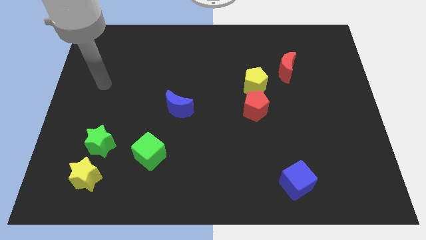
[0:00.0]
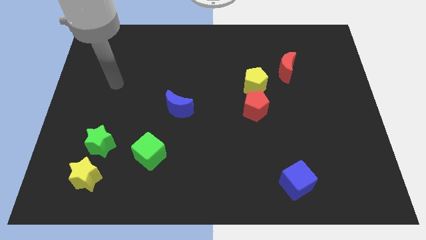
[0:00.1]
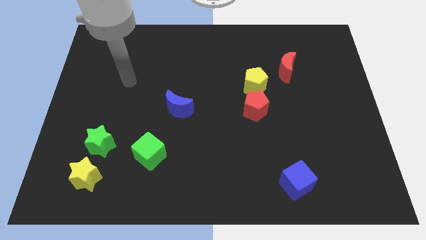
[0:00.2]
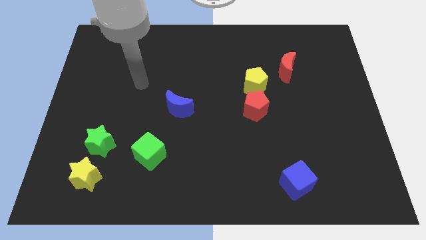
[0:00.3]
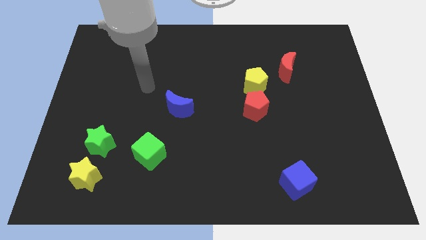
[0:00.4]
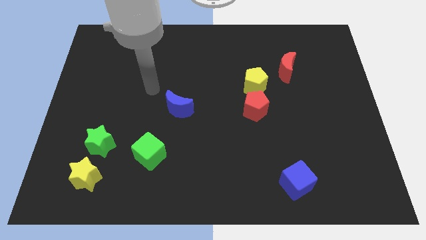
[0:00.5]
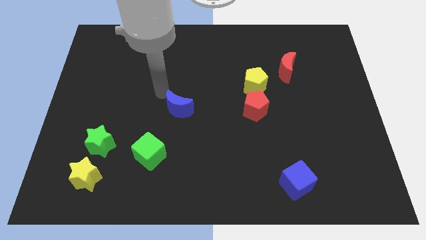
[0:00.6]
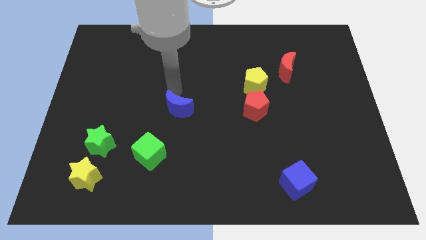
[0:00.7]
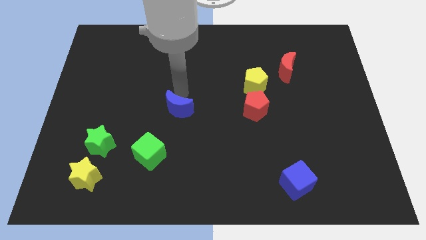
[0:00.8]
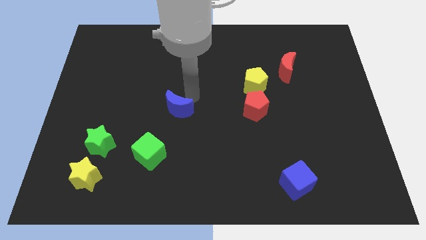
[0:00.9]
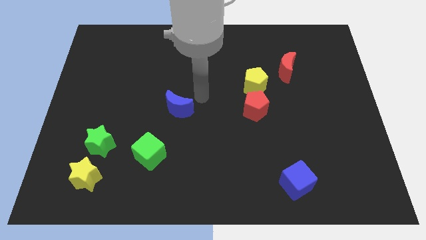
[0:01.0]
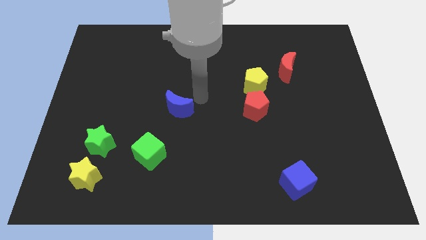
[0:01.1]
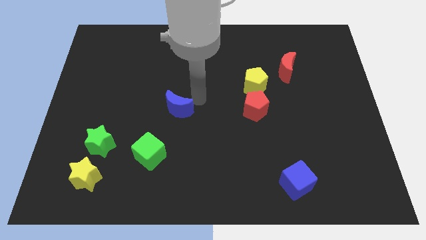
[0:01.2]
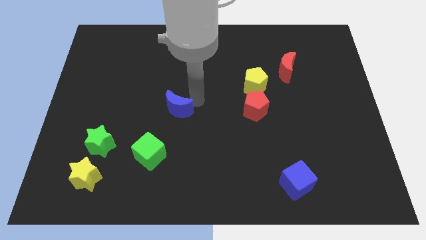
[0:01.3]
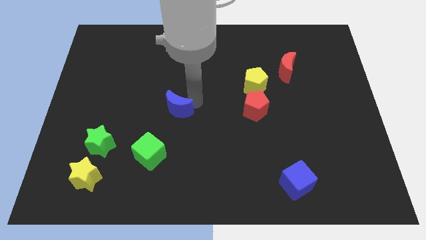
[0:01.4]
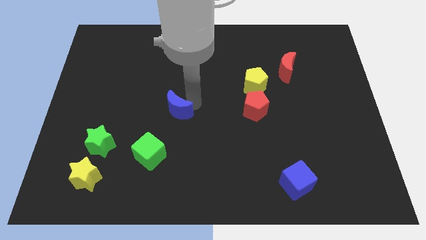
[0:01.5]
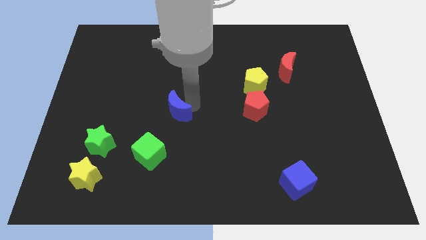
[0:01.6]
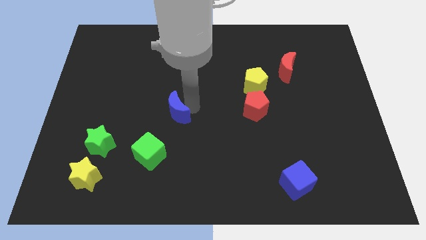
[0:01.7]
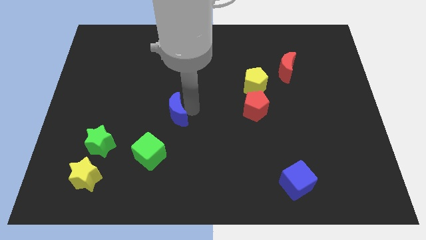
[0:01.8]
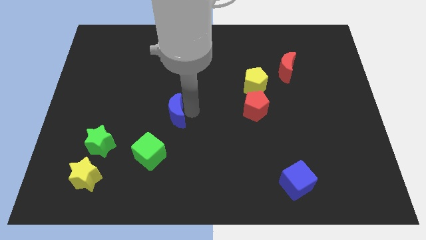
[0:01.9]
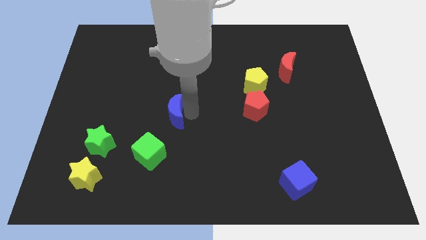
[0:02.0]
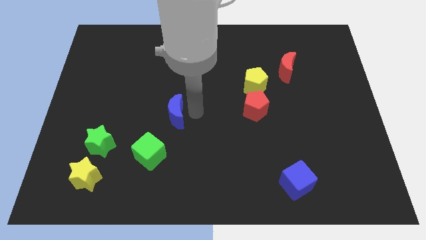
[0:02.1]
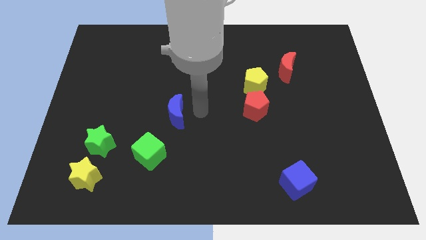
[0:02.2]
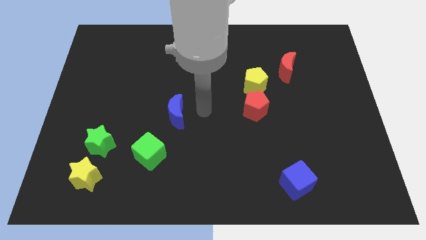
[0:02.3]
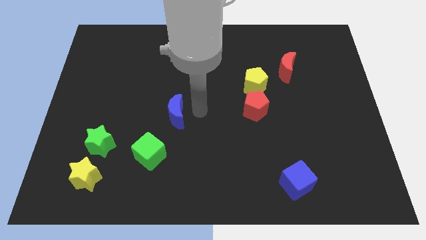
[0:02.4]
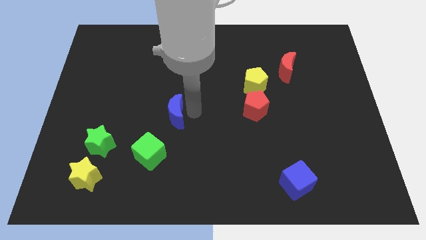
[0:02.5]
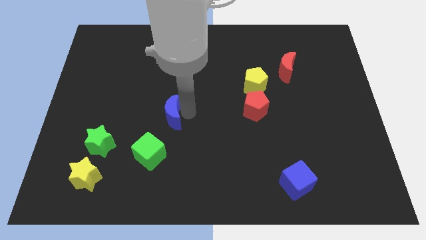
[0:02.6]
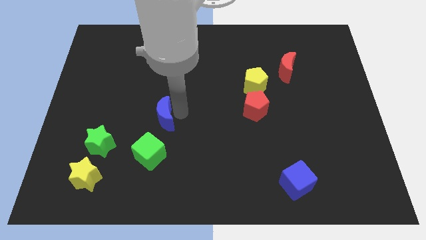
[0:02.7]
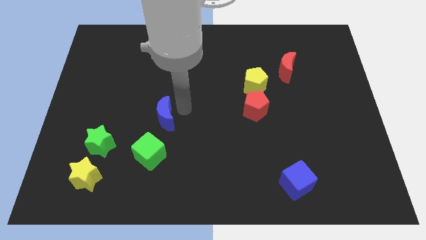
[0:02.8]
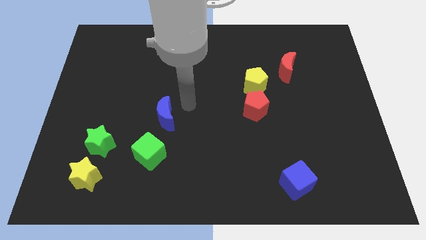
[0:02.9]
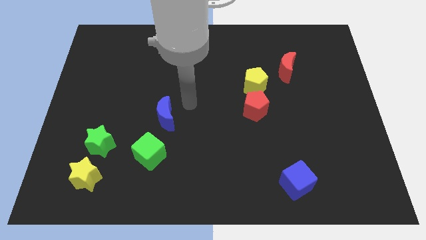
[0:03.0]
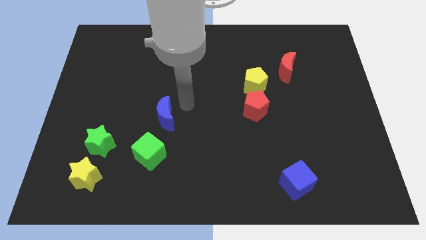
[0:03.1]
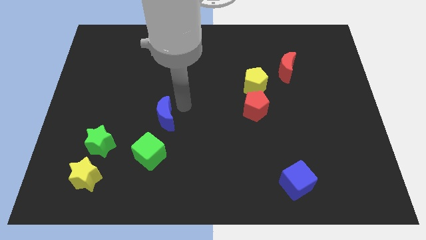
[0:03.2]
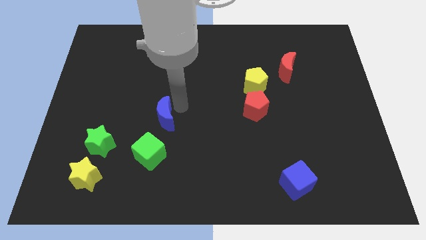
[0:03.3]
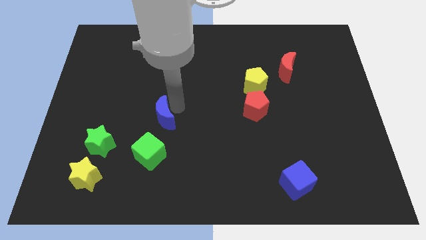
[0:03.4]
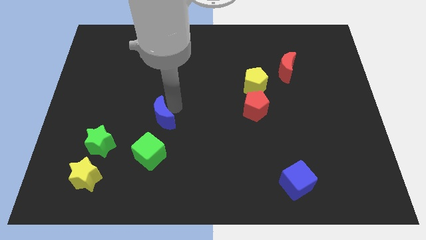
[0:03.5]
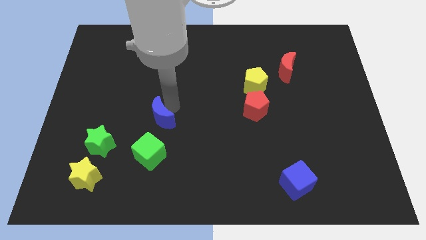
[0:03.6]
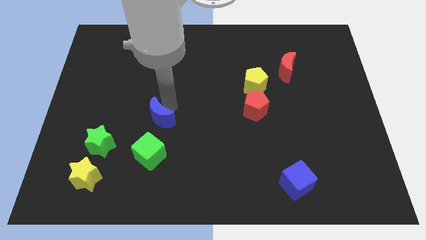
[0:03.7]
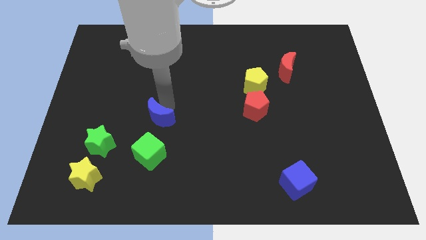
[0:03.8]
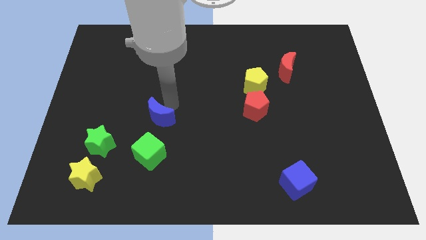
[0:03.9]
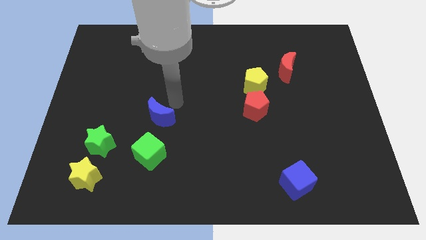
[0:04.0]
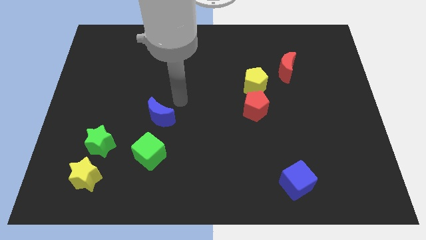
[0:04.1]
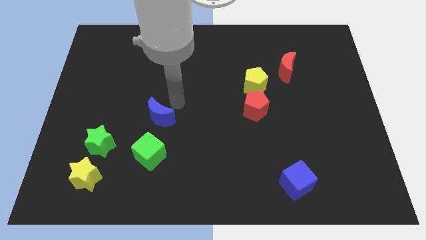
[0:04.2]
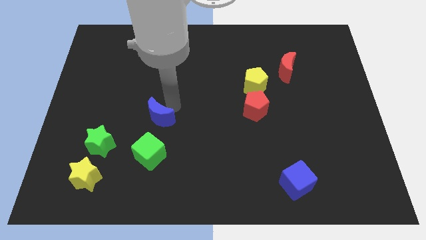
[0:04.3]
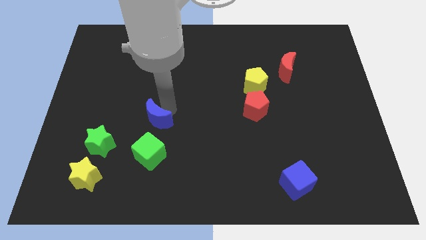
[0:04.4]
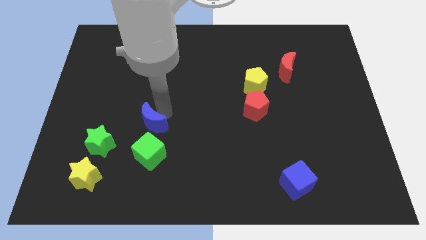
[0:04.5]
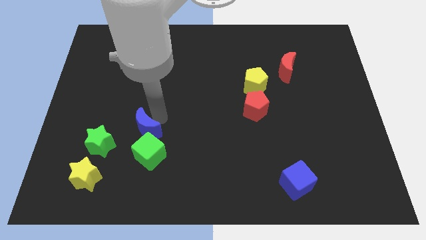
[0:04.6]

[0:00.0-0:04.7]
push the blue moon to the top left of the green cube

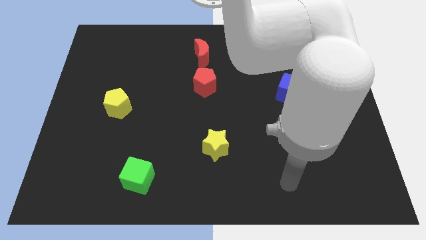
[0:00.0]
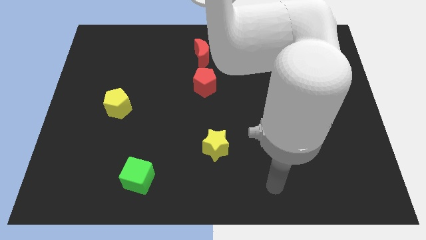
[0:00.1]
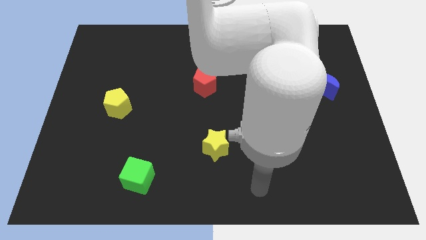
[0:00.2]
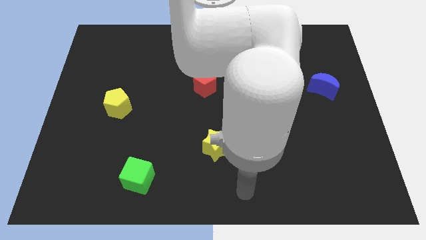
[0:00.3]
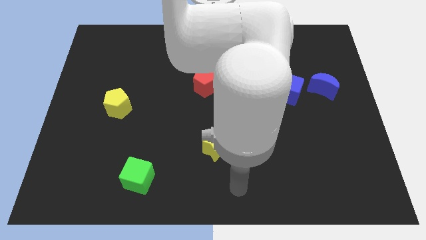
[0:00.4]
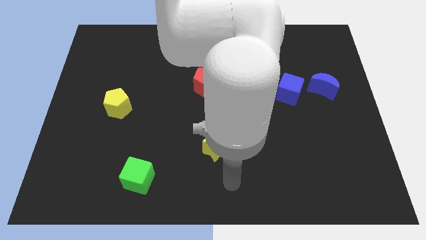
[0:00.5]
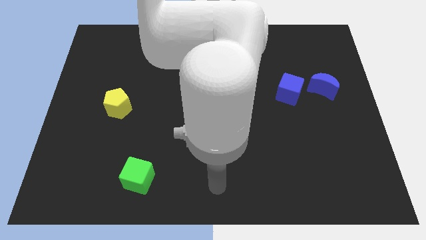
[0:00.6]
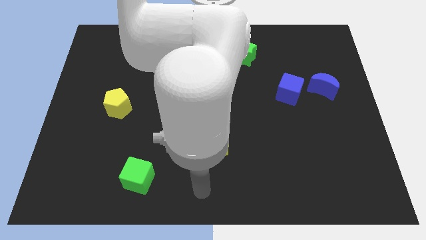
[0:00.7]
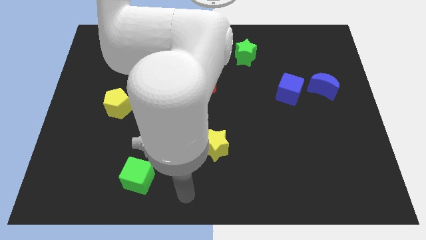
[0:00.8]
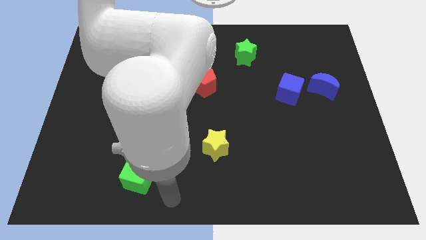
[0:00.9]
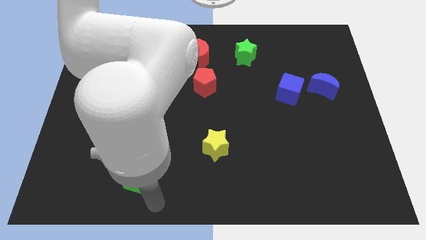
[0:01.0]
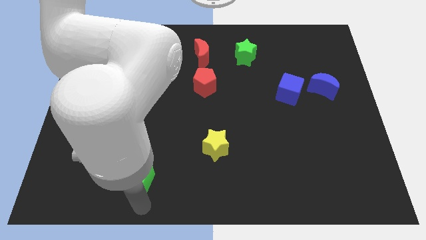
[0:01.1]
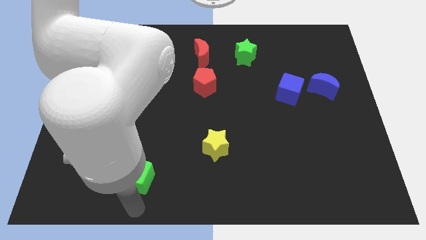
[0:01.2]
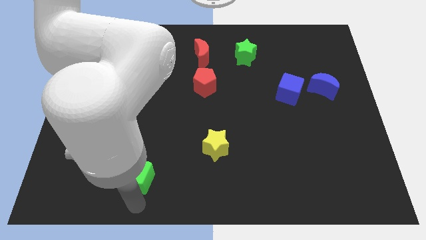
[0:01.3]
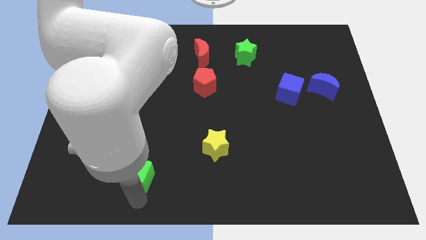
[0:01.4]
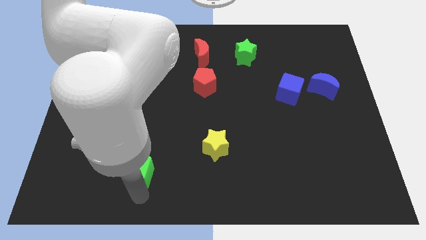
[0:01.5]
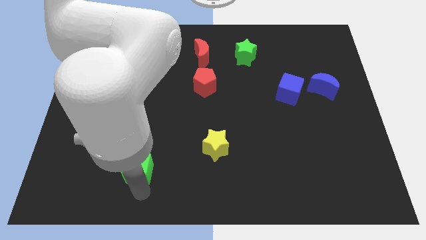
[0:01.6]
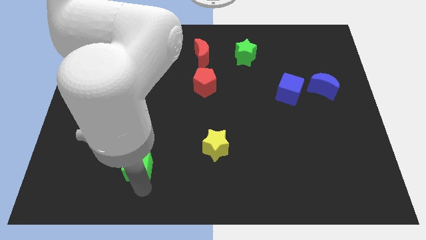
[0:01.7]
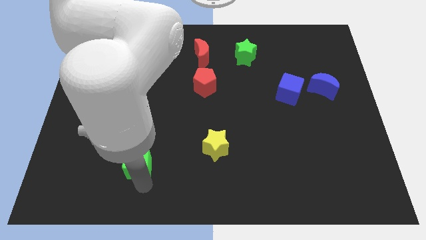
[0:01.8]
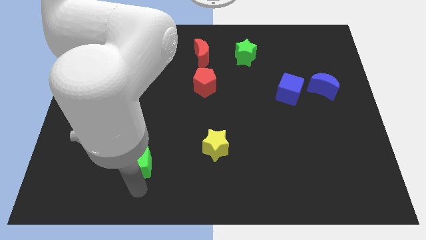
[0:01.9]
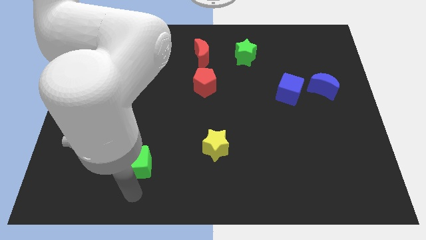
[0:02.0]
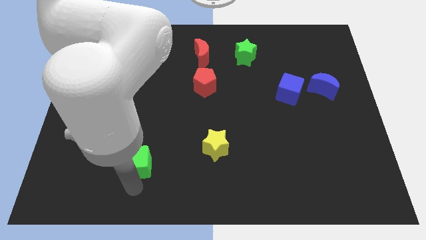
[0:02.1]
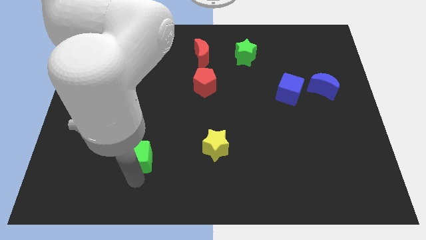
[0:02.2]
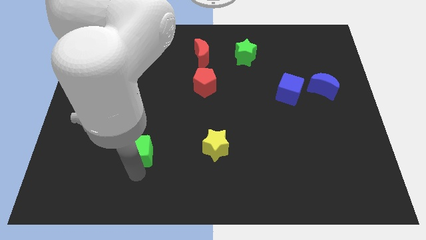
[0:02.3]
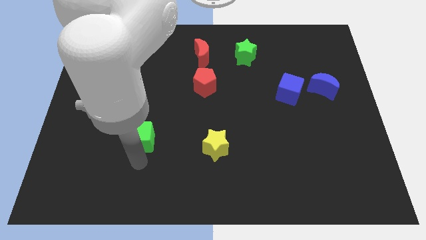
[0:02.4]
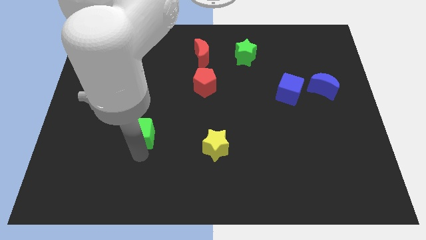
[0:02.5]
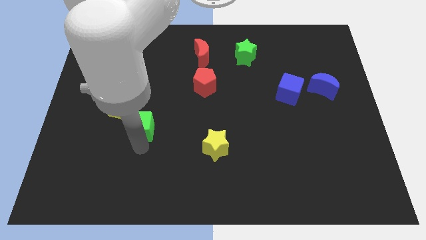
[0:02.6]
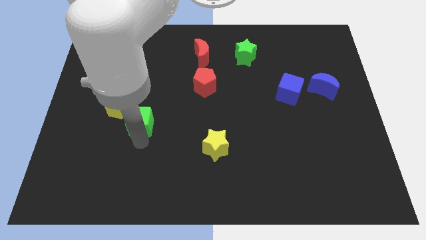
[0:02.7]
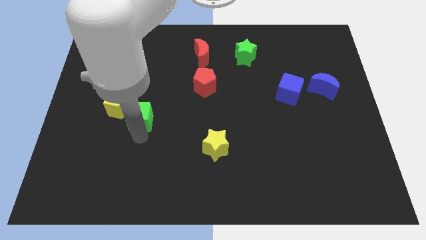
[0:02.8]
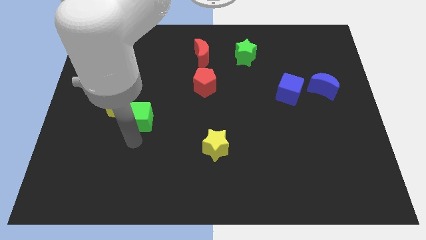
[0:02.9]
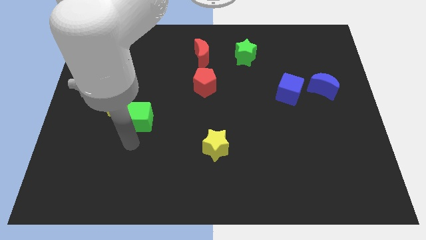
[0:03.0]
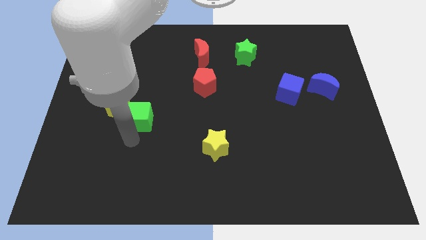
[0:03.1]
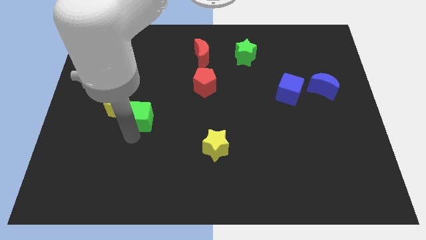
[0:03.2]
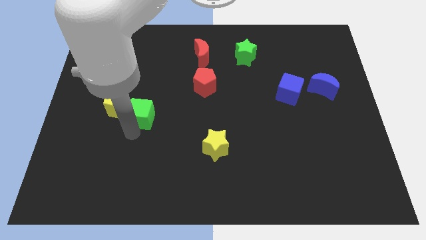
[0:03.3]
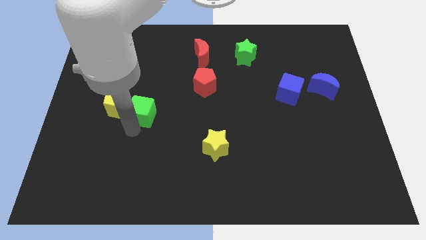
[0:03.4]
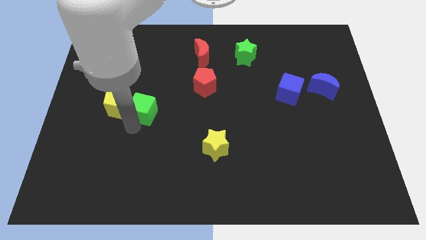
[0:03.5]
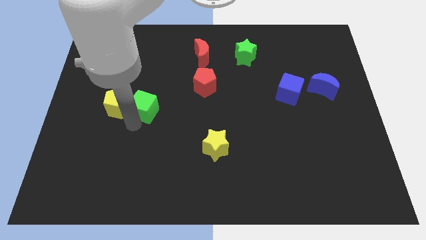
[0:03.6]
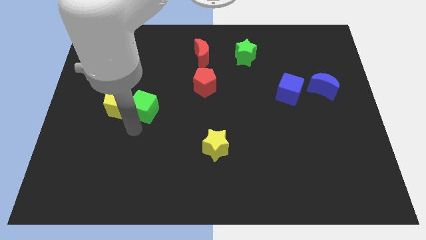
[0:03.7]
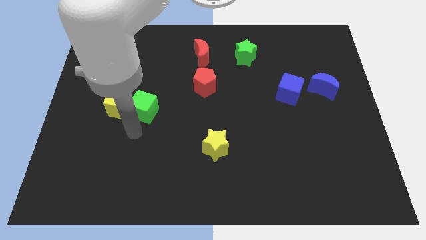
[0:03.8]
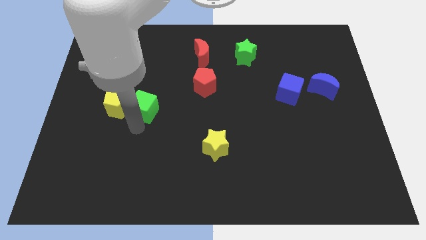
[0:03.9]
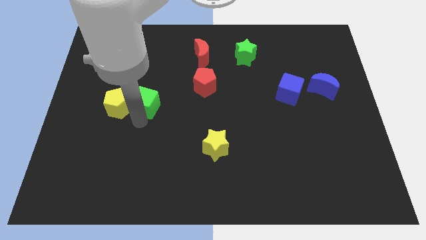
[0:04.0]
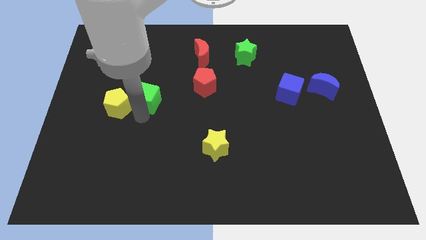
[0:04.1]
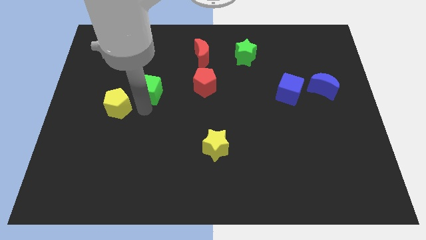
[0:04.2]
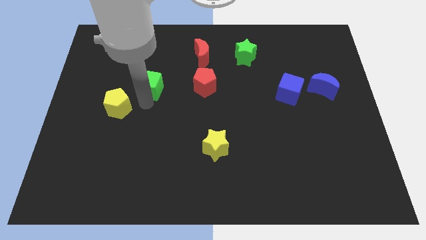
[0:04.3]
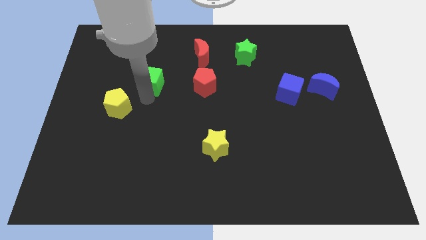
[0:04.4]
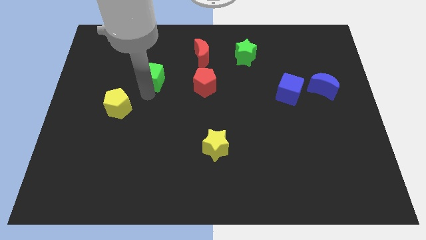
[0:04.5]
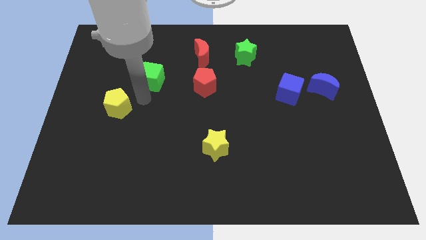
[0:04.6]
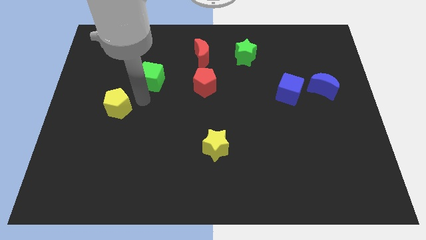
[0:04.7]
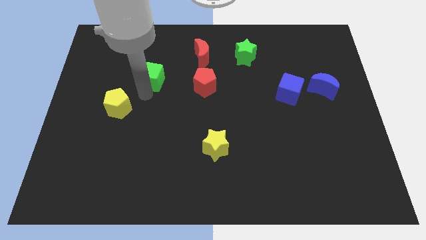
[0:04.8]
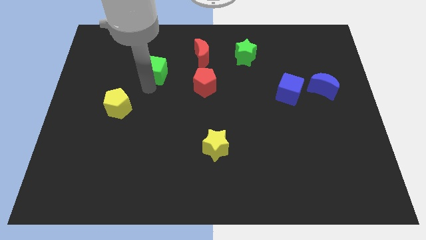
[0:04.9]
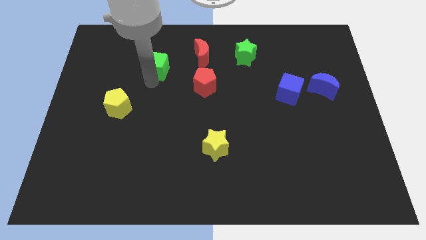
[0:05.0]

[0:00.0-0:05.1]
move the green cube to the left of the red moon
